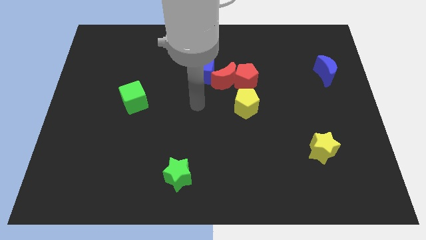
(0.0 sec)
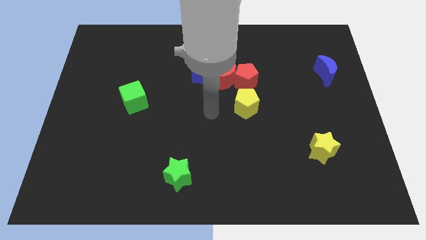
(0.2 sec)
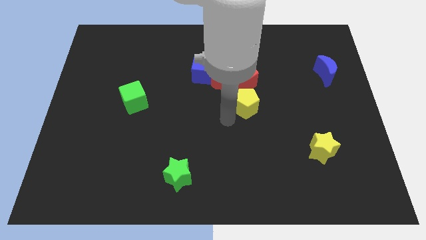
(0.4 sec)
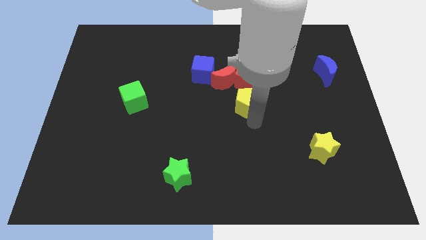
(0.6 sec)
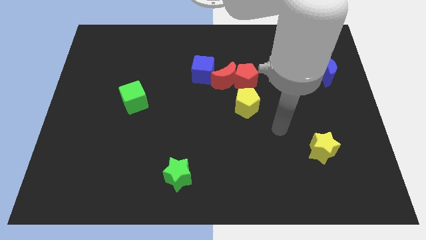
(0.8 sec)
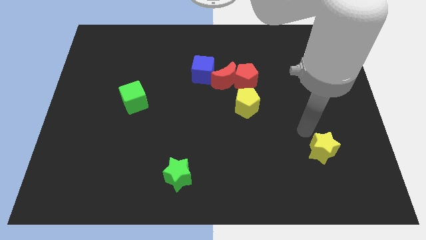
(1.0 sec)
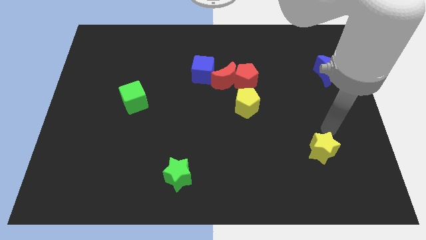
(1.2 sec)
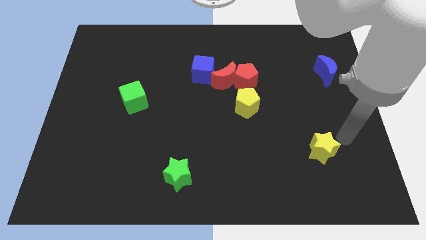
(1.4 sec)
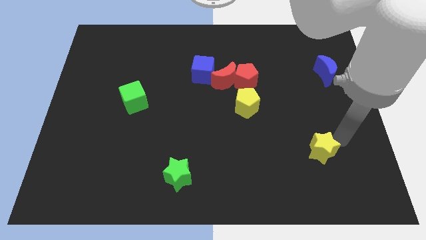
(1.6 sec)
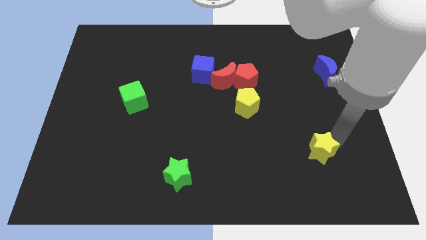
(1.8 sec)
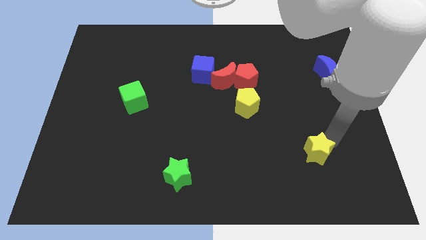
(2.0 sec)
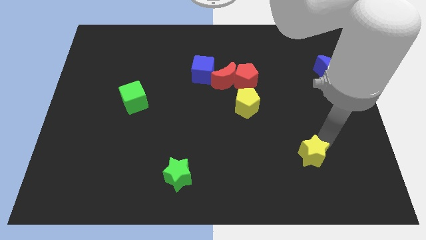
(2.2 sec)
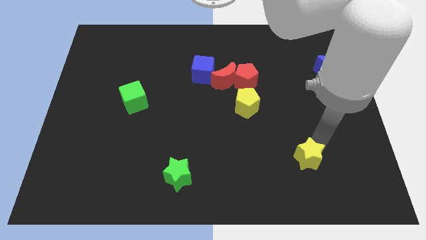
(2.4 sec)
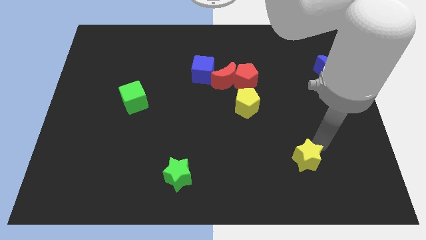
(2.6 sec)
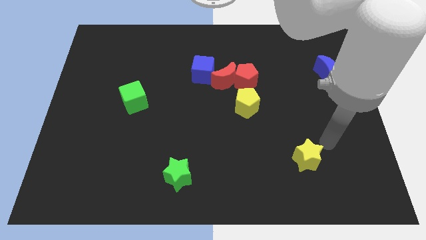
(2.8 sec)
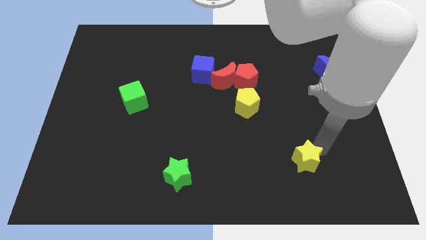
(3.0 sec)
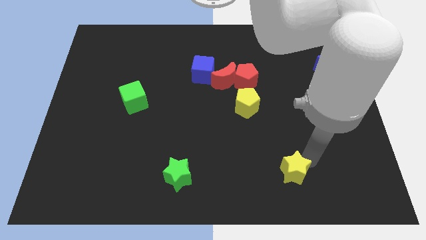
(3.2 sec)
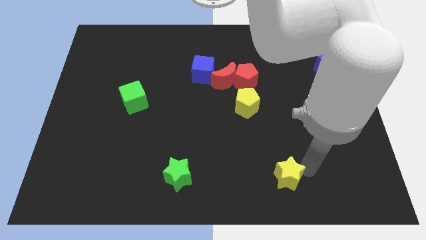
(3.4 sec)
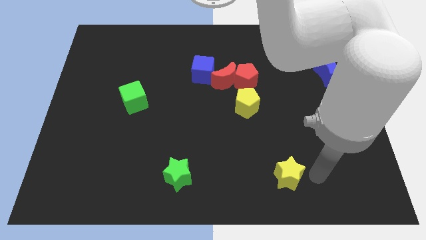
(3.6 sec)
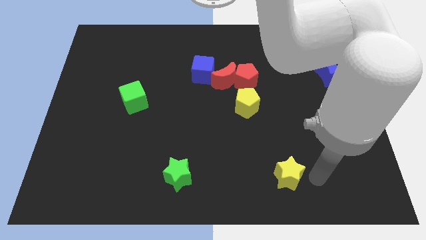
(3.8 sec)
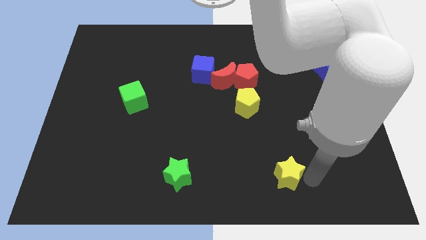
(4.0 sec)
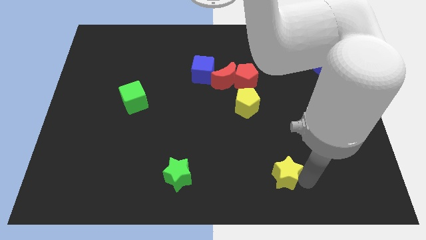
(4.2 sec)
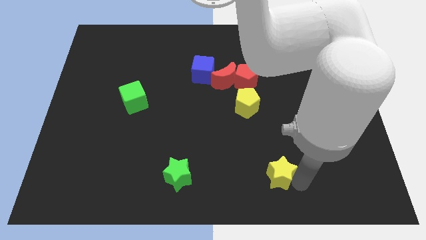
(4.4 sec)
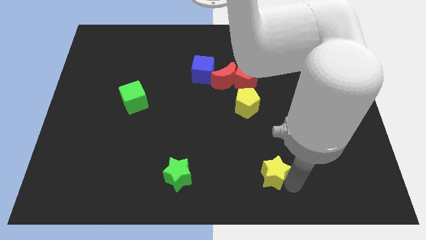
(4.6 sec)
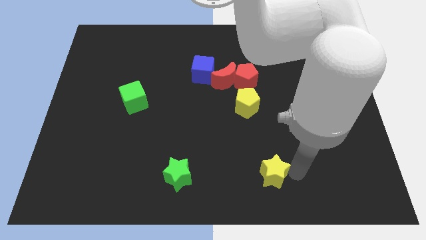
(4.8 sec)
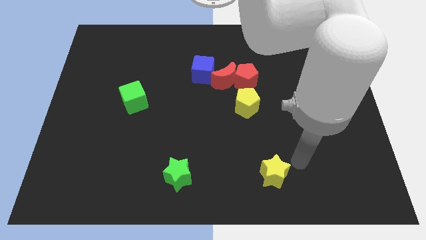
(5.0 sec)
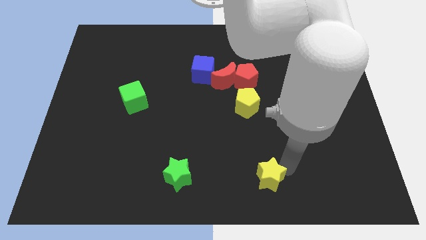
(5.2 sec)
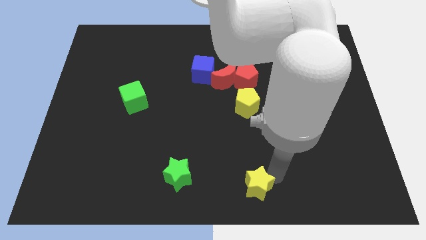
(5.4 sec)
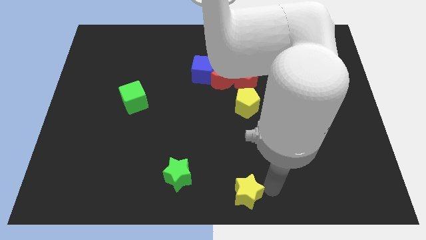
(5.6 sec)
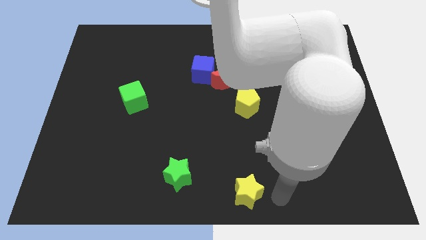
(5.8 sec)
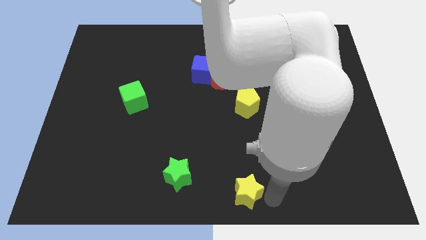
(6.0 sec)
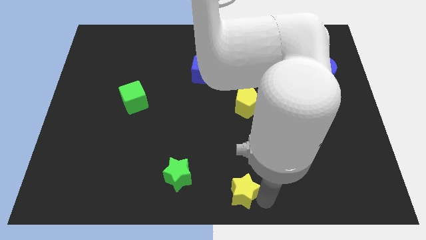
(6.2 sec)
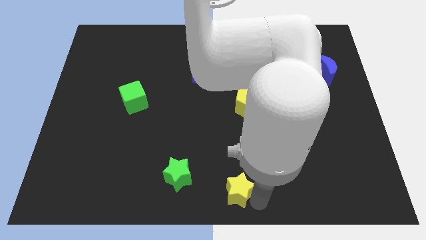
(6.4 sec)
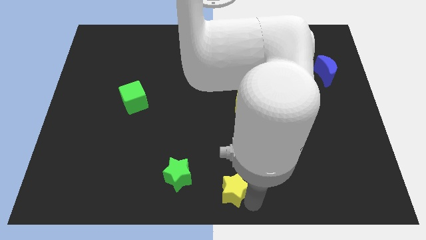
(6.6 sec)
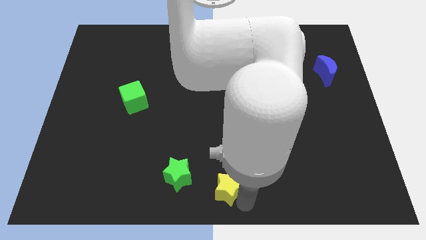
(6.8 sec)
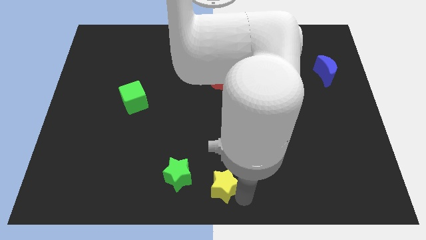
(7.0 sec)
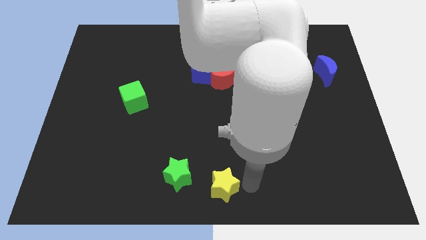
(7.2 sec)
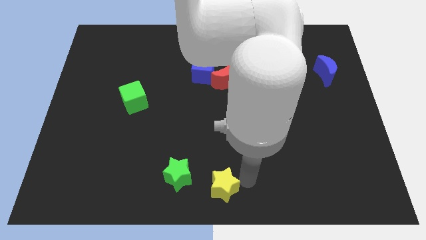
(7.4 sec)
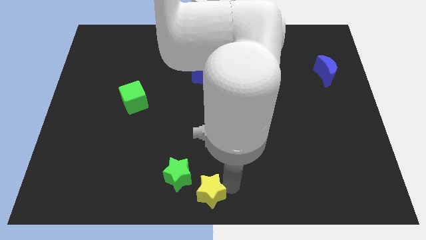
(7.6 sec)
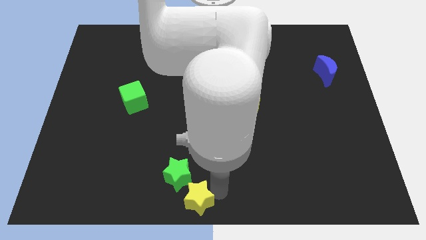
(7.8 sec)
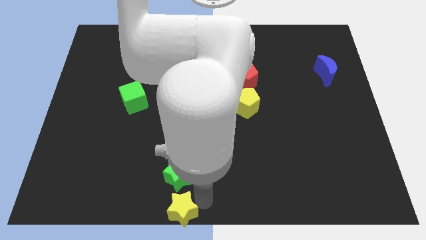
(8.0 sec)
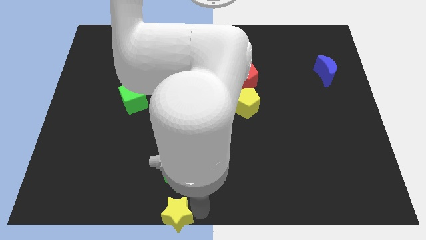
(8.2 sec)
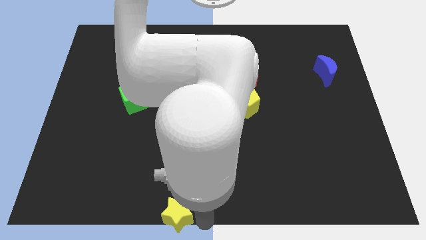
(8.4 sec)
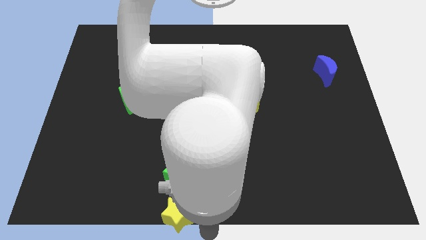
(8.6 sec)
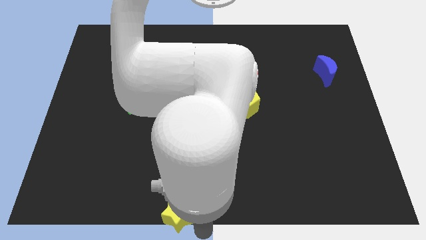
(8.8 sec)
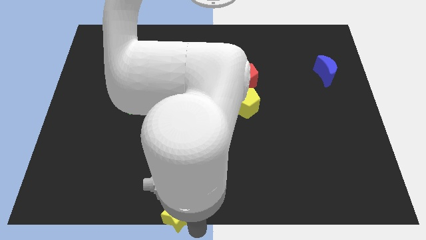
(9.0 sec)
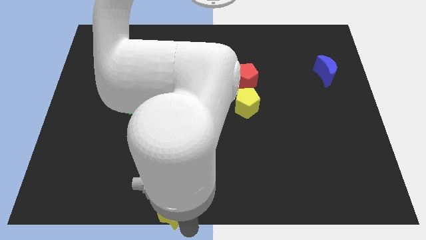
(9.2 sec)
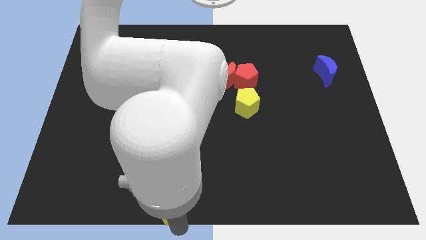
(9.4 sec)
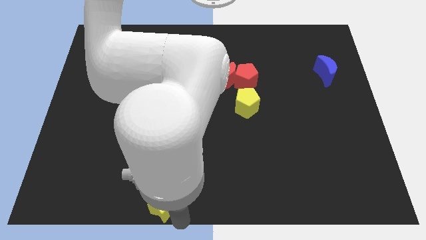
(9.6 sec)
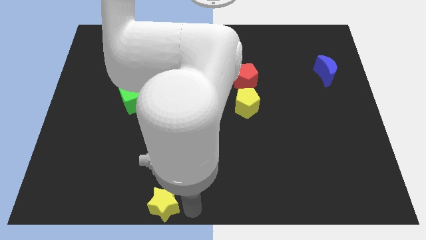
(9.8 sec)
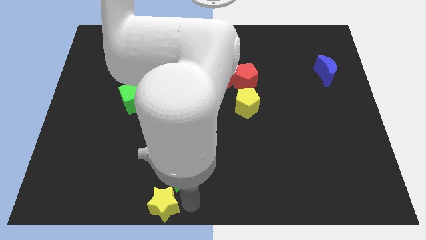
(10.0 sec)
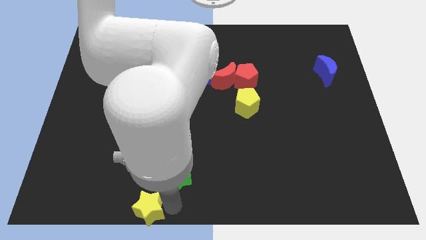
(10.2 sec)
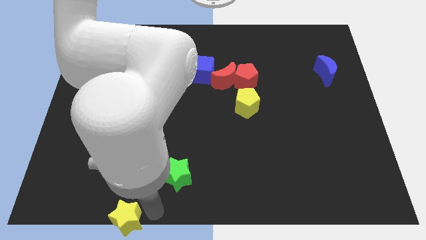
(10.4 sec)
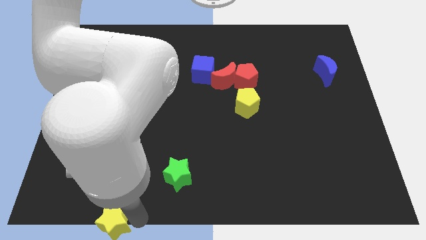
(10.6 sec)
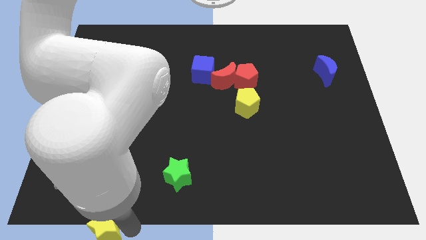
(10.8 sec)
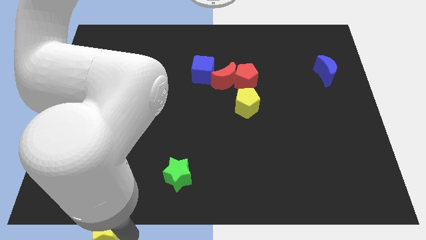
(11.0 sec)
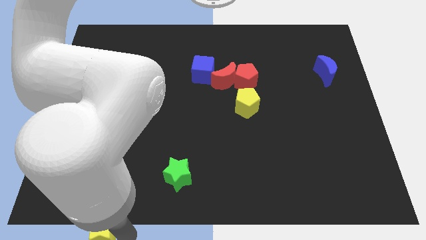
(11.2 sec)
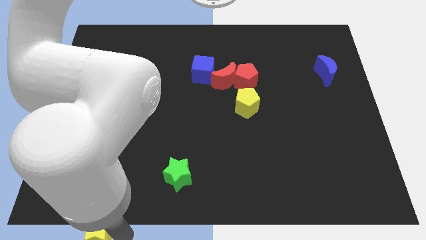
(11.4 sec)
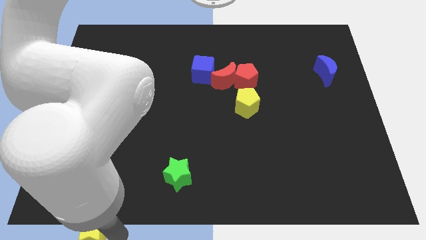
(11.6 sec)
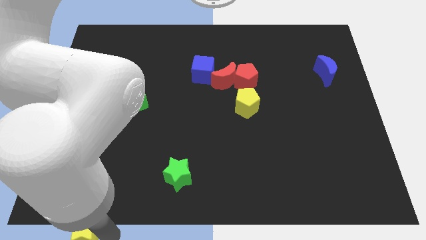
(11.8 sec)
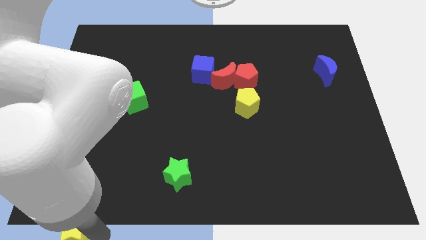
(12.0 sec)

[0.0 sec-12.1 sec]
put the yellow star to the bottom left

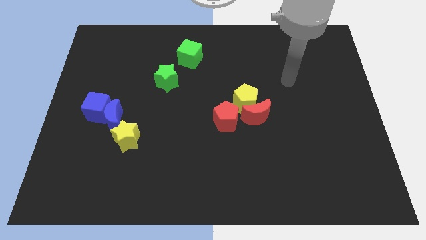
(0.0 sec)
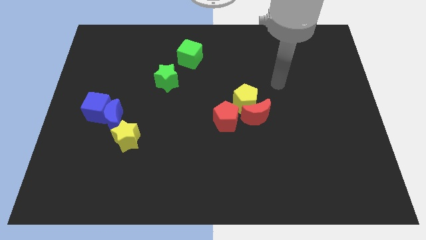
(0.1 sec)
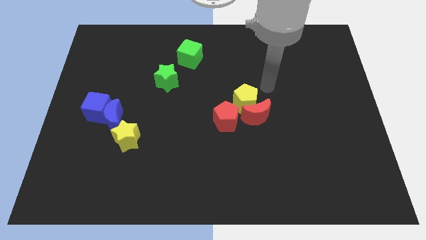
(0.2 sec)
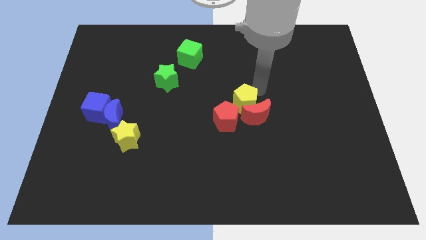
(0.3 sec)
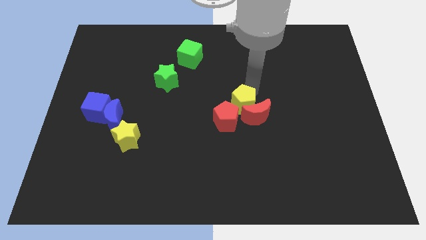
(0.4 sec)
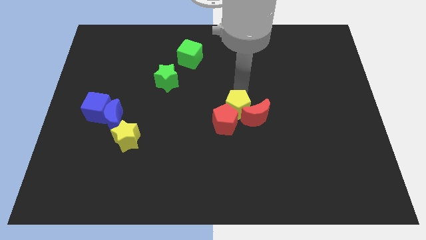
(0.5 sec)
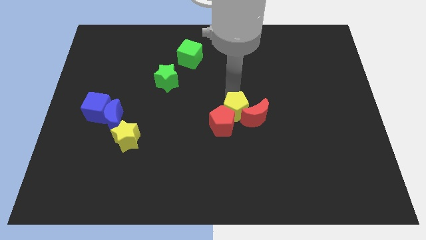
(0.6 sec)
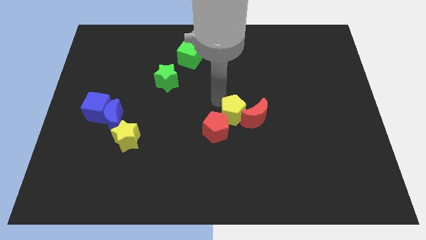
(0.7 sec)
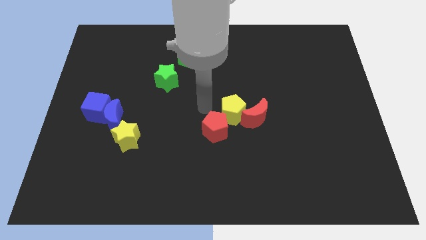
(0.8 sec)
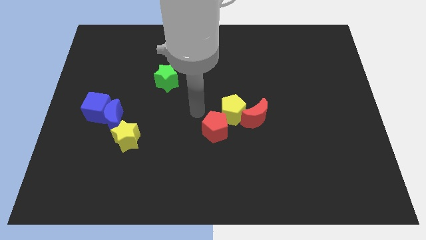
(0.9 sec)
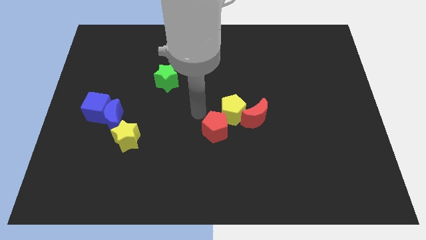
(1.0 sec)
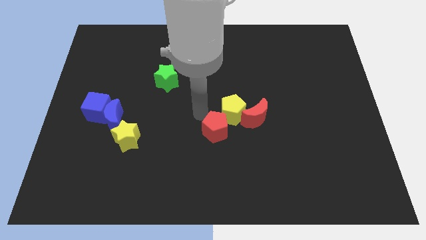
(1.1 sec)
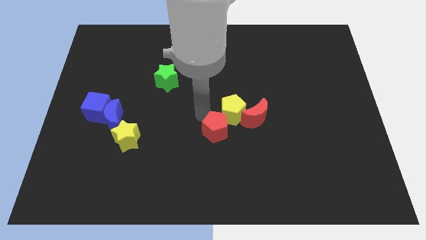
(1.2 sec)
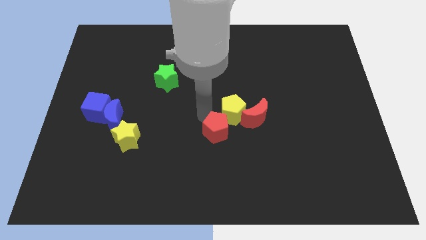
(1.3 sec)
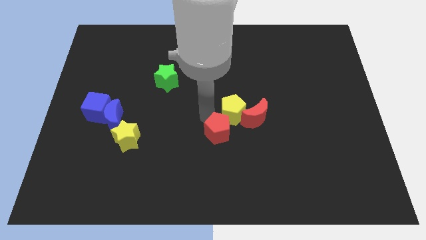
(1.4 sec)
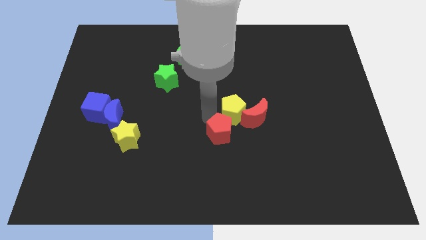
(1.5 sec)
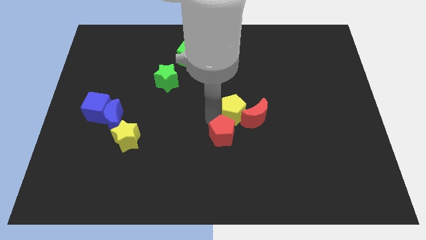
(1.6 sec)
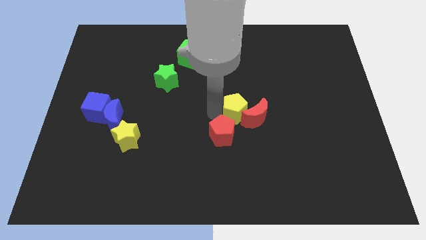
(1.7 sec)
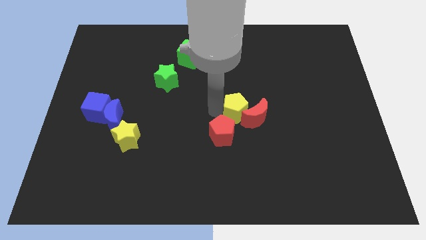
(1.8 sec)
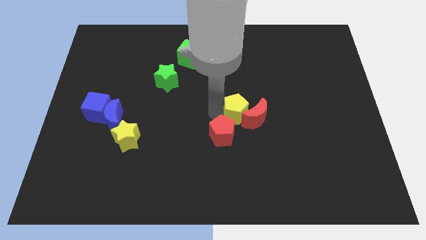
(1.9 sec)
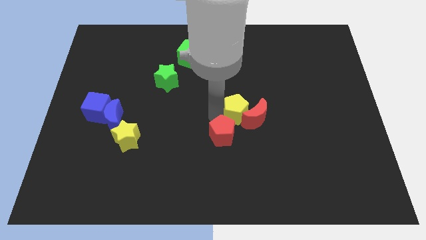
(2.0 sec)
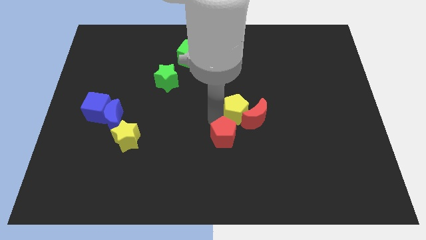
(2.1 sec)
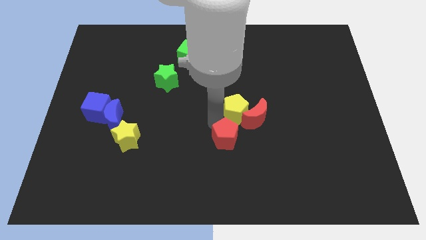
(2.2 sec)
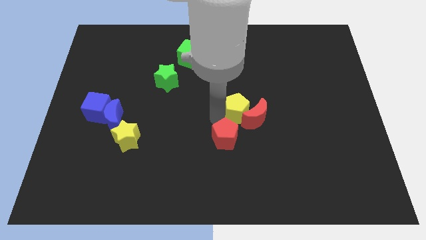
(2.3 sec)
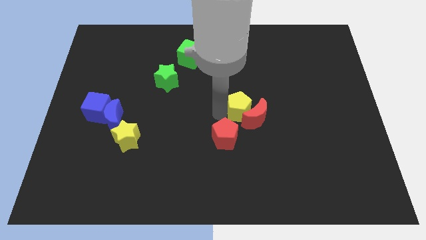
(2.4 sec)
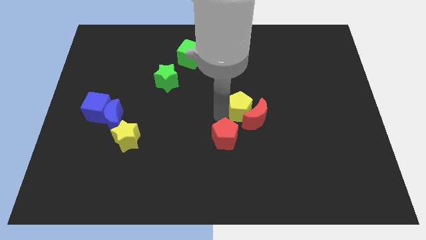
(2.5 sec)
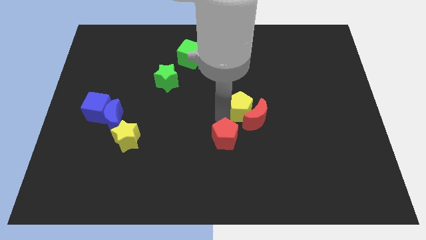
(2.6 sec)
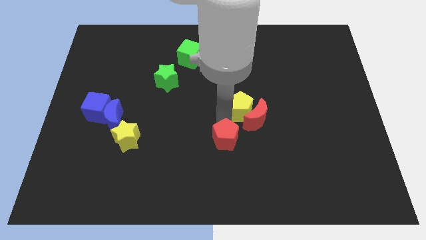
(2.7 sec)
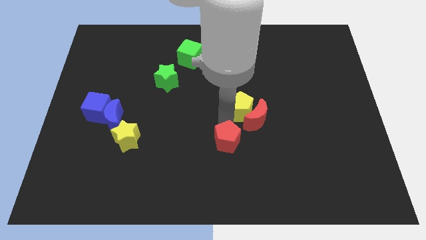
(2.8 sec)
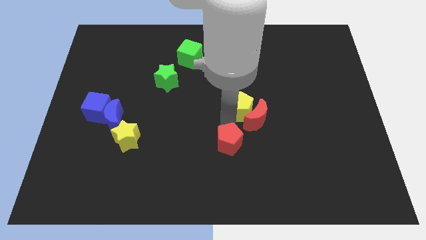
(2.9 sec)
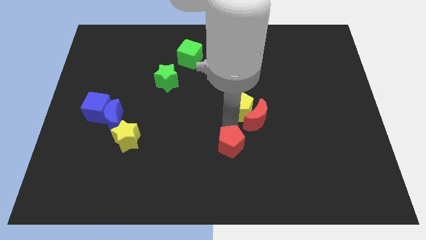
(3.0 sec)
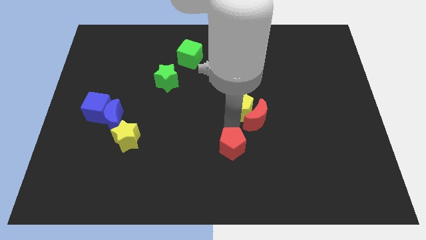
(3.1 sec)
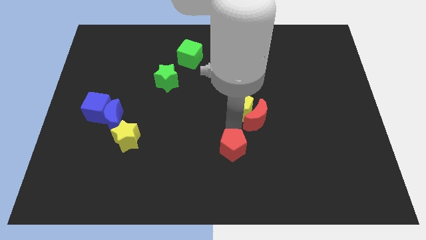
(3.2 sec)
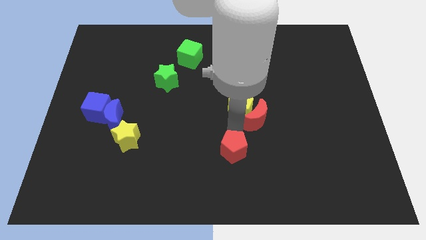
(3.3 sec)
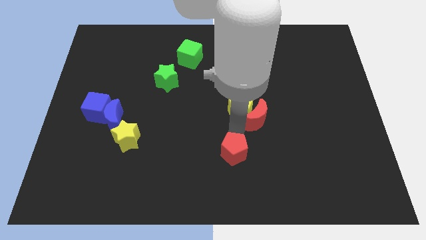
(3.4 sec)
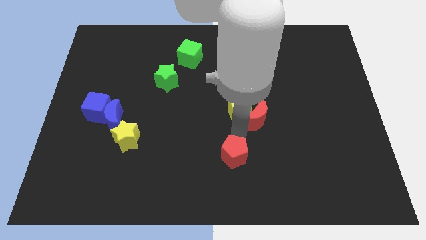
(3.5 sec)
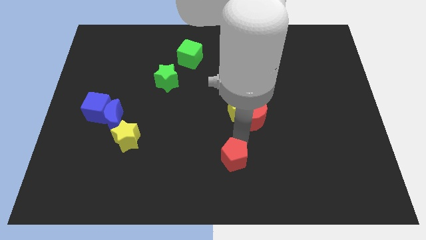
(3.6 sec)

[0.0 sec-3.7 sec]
push the red pentagon to the bottom
